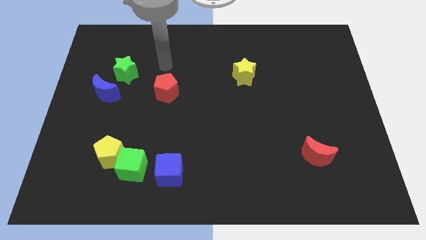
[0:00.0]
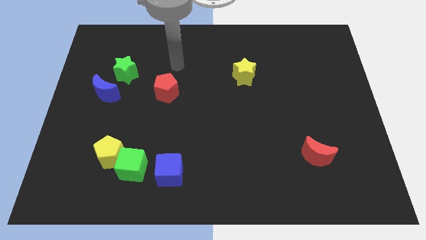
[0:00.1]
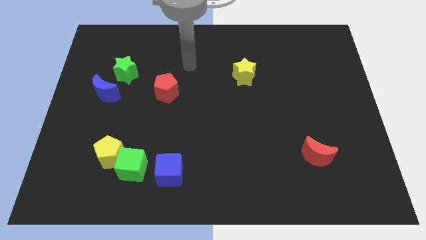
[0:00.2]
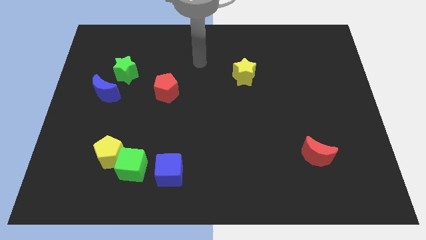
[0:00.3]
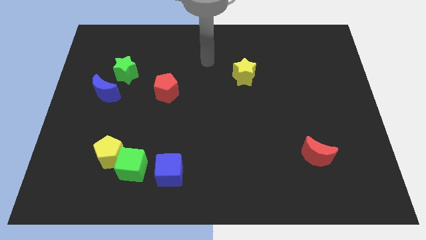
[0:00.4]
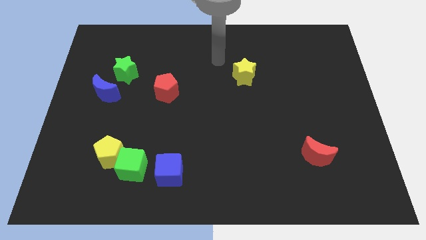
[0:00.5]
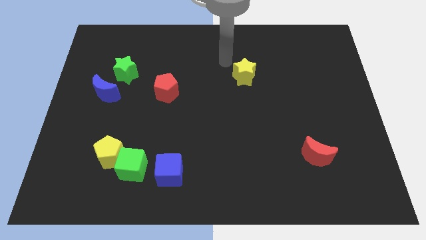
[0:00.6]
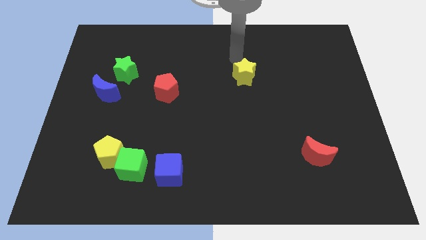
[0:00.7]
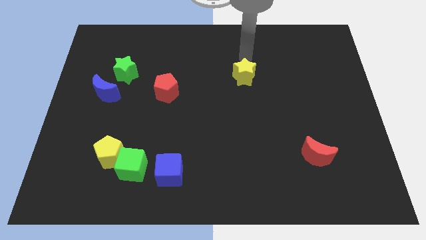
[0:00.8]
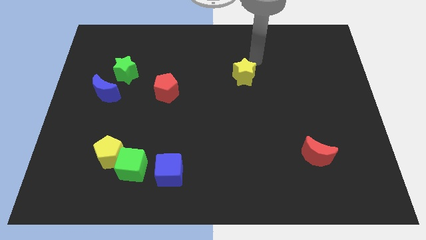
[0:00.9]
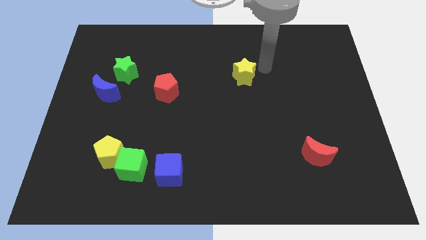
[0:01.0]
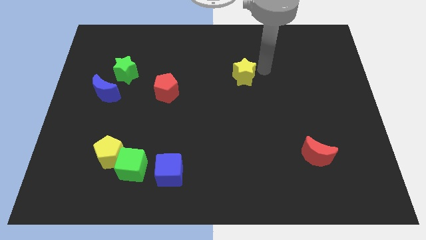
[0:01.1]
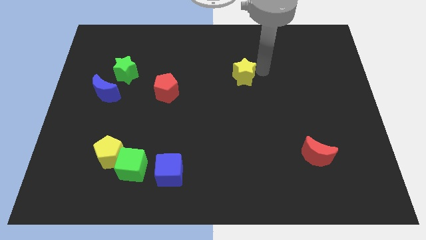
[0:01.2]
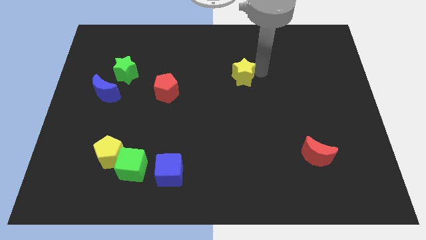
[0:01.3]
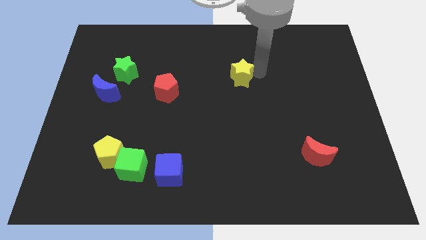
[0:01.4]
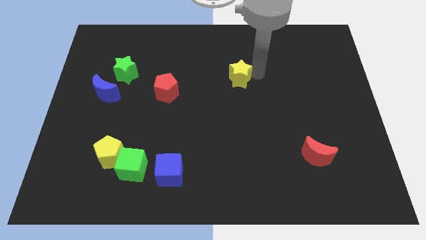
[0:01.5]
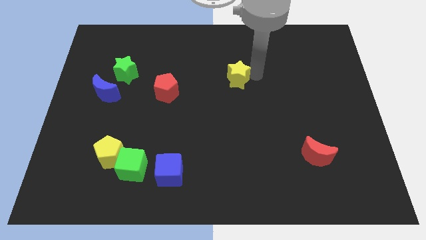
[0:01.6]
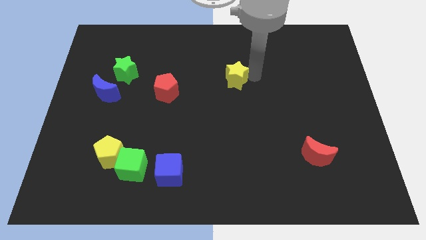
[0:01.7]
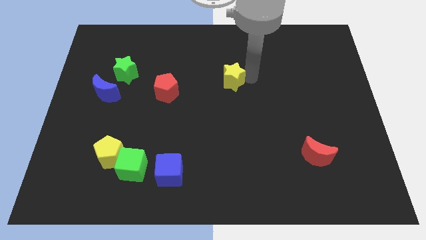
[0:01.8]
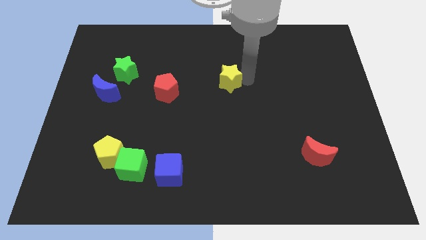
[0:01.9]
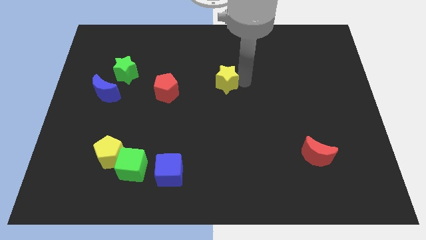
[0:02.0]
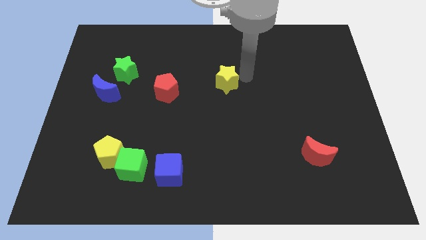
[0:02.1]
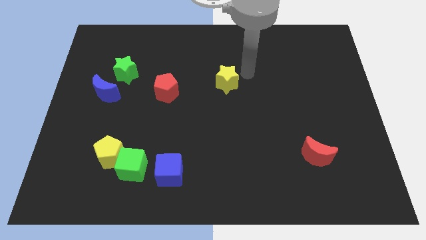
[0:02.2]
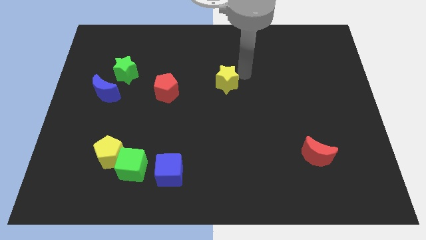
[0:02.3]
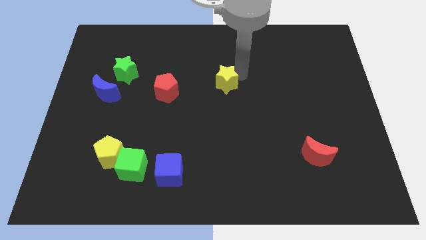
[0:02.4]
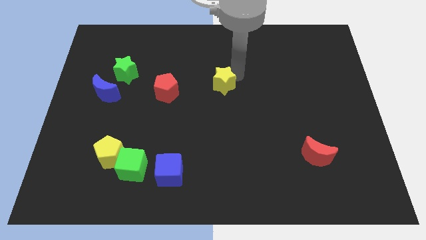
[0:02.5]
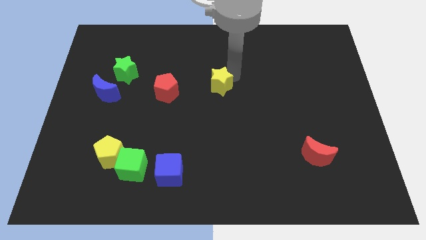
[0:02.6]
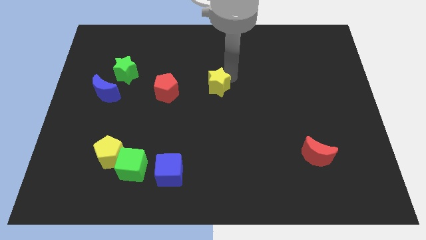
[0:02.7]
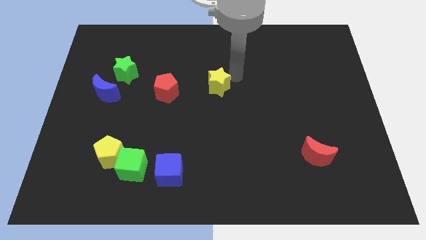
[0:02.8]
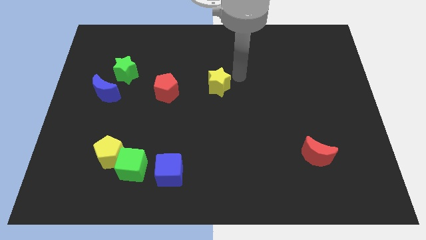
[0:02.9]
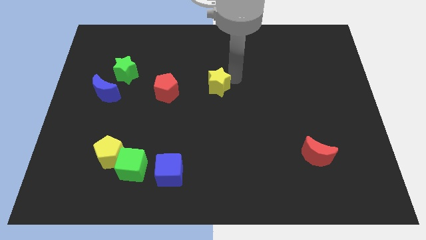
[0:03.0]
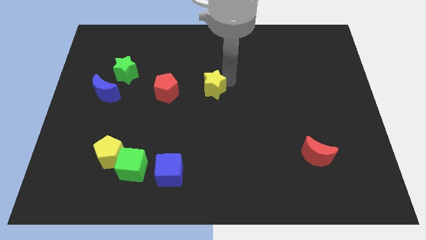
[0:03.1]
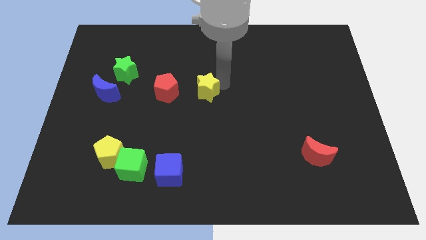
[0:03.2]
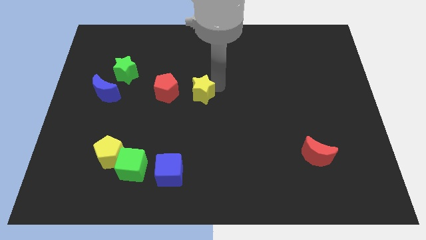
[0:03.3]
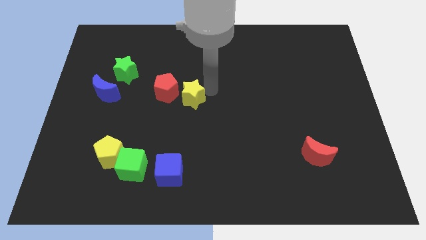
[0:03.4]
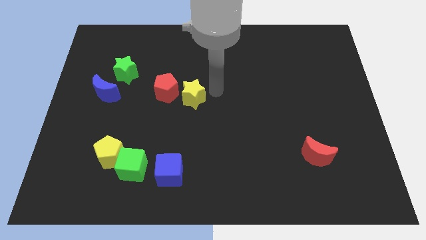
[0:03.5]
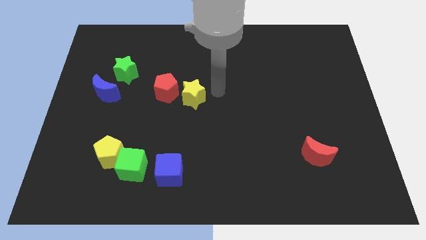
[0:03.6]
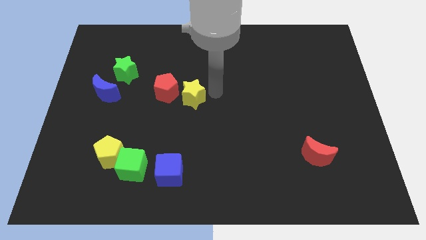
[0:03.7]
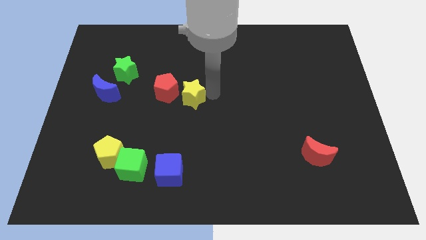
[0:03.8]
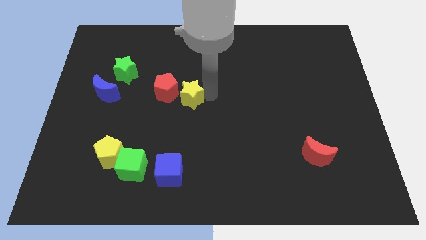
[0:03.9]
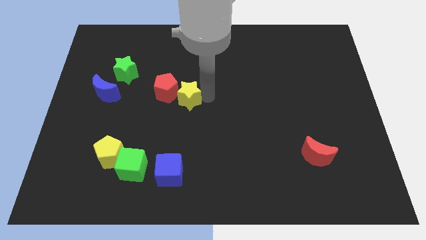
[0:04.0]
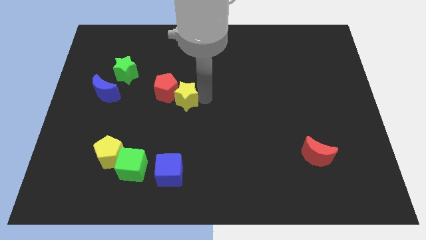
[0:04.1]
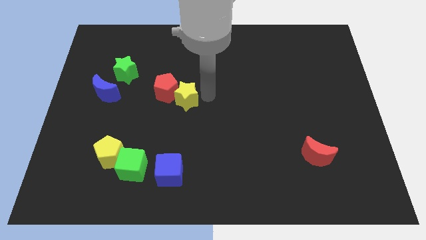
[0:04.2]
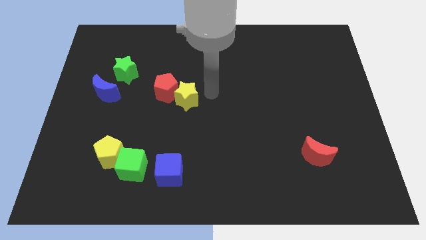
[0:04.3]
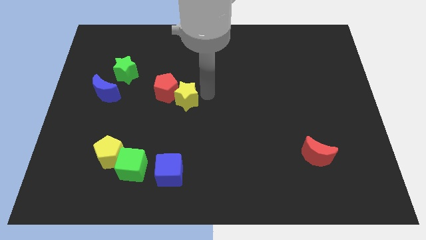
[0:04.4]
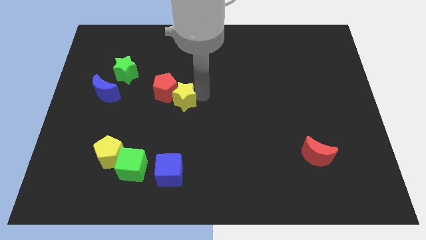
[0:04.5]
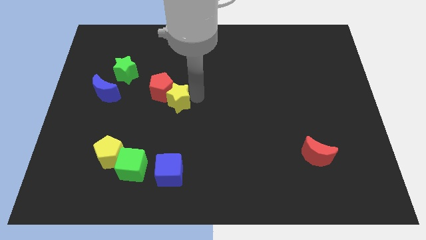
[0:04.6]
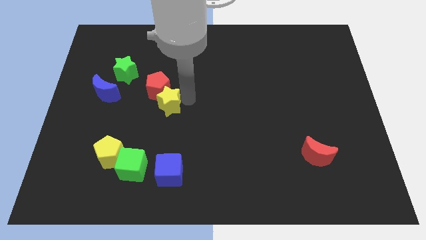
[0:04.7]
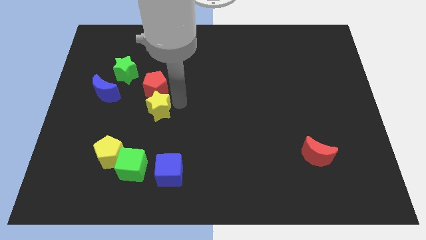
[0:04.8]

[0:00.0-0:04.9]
slide the yellow star to the bottom left side of the red pentagon

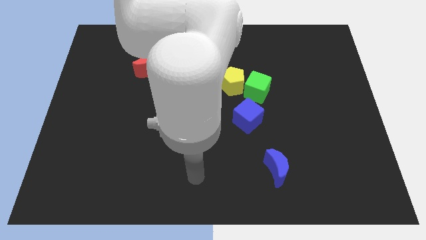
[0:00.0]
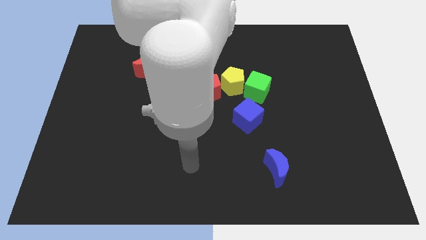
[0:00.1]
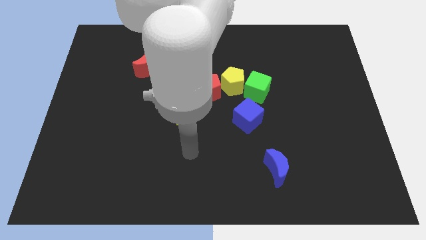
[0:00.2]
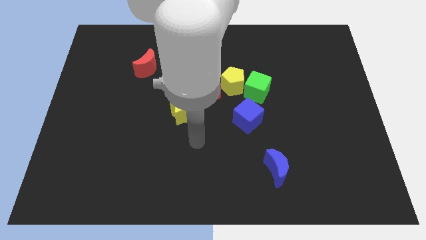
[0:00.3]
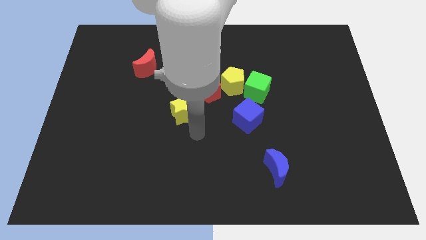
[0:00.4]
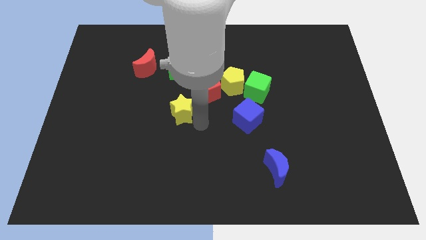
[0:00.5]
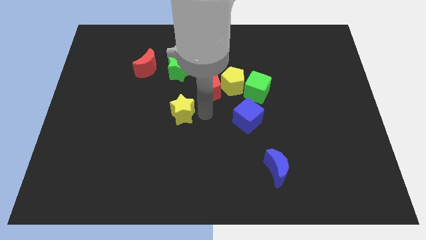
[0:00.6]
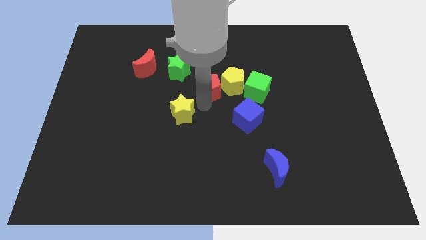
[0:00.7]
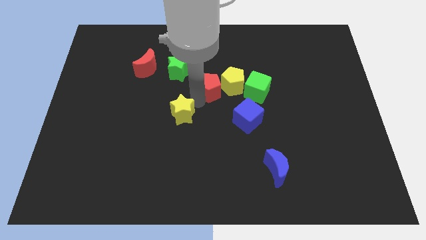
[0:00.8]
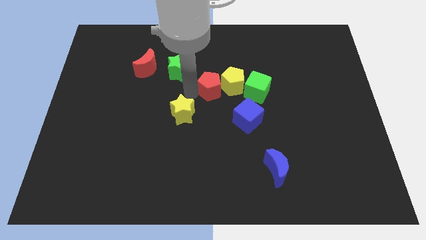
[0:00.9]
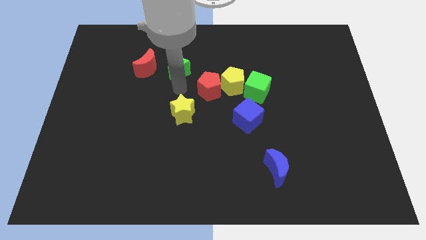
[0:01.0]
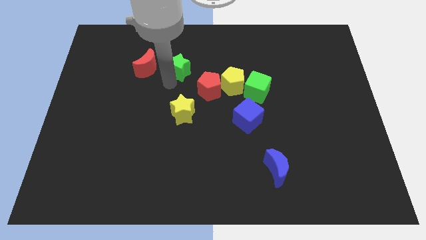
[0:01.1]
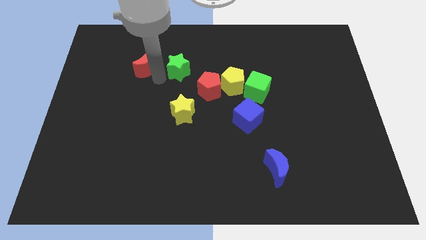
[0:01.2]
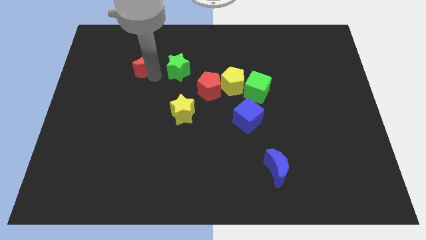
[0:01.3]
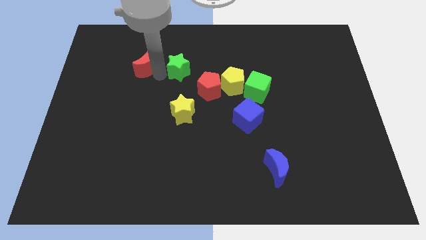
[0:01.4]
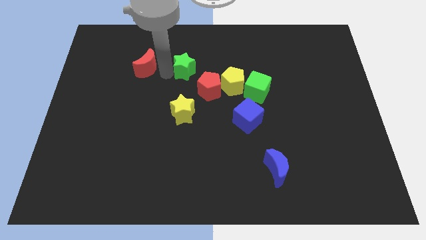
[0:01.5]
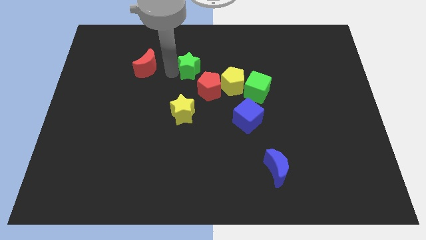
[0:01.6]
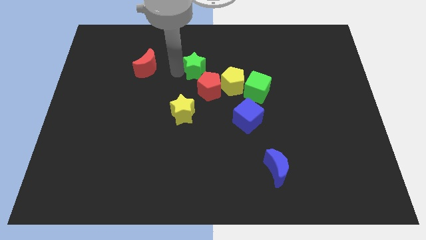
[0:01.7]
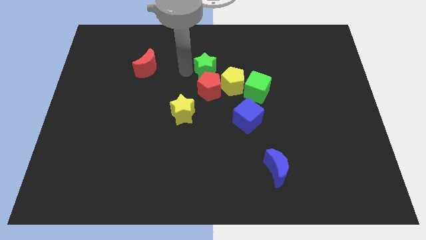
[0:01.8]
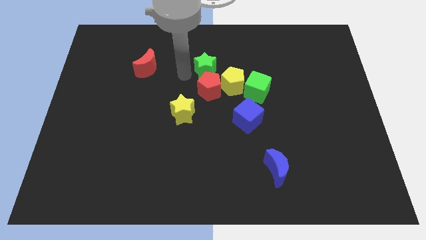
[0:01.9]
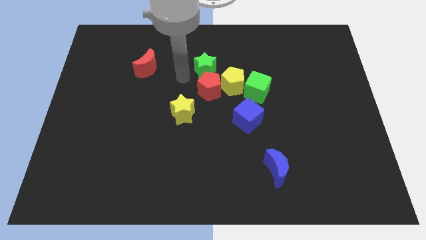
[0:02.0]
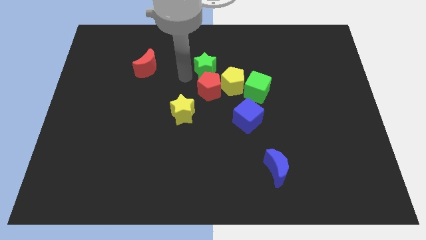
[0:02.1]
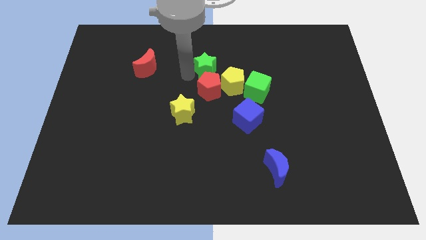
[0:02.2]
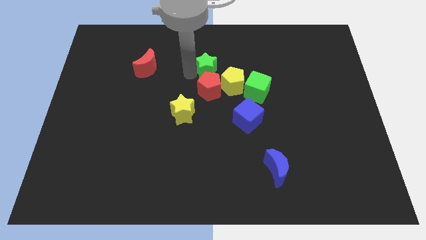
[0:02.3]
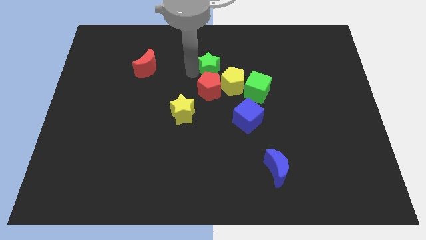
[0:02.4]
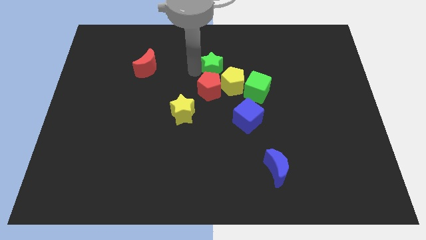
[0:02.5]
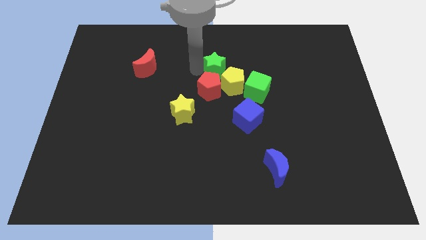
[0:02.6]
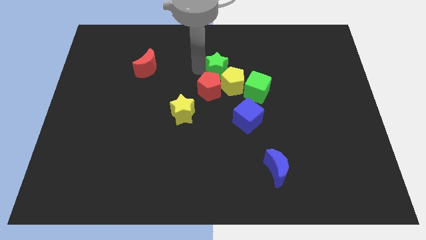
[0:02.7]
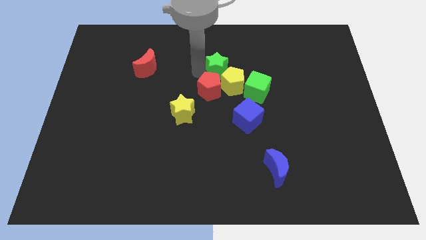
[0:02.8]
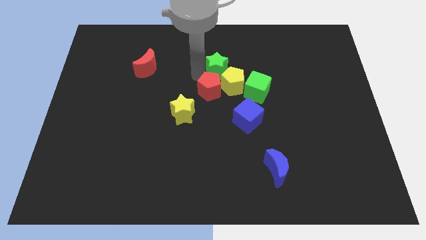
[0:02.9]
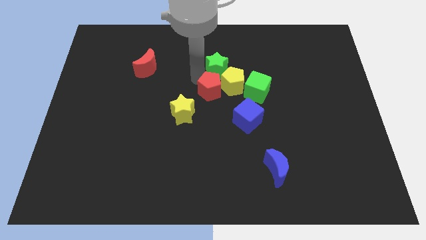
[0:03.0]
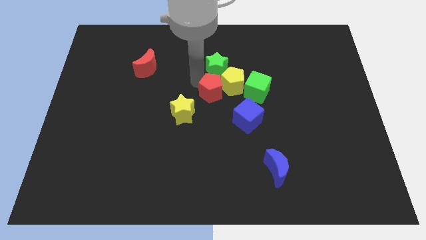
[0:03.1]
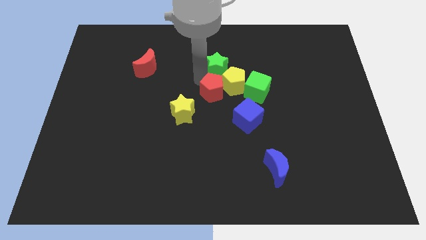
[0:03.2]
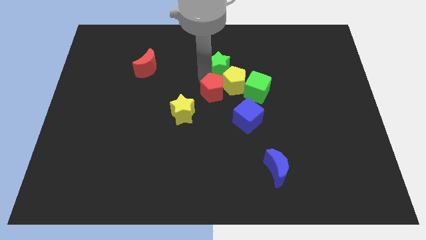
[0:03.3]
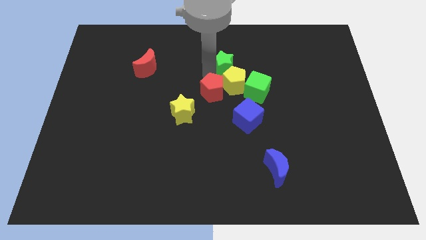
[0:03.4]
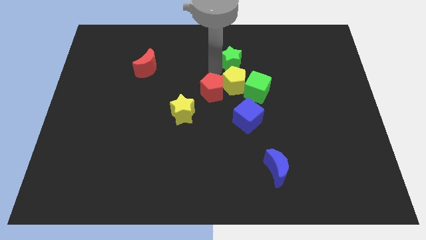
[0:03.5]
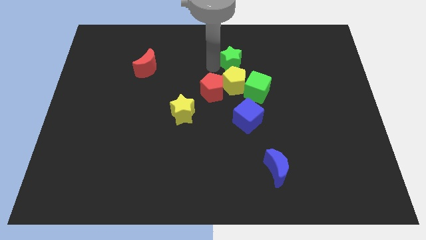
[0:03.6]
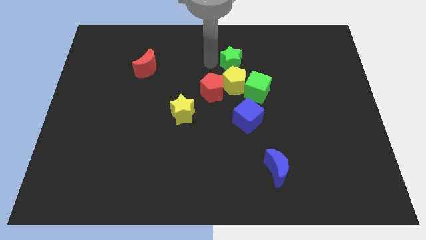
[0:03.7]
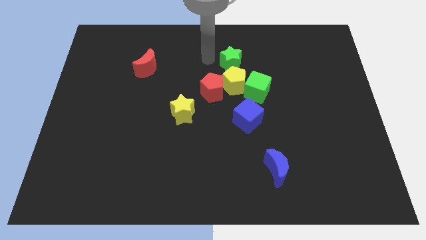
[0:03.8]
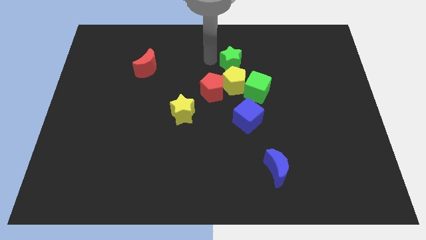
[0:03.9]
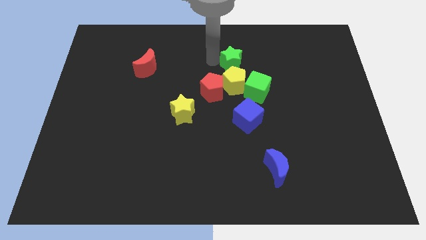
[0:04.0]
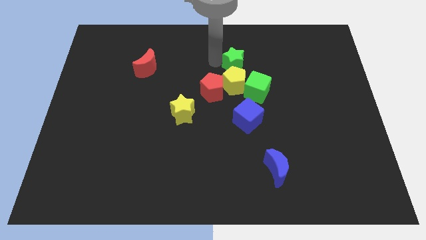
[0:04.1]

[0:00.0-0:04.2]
move the green star to the top right side of the yellow pentagon
